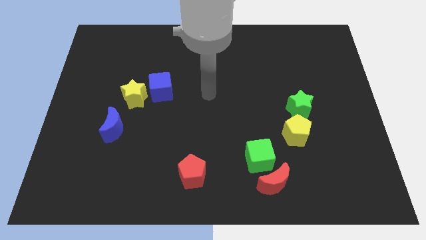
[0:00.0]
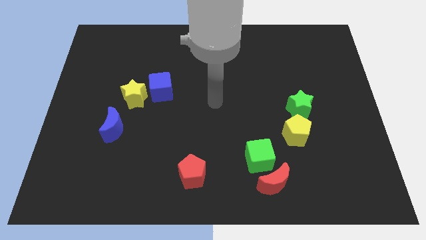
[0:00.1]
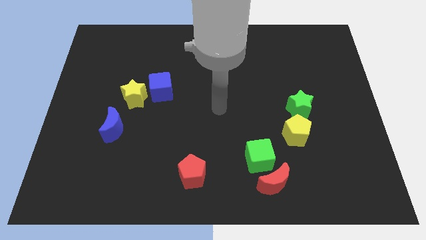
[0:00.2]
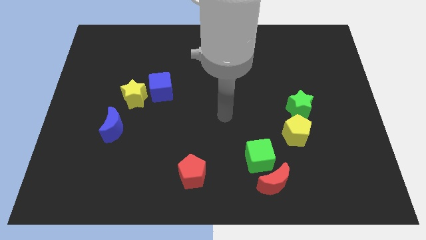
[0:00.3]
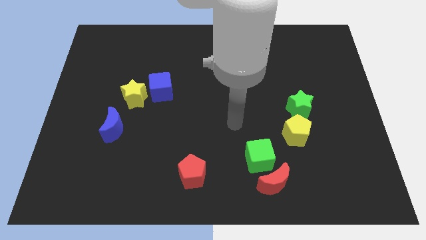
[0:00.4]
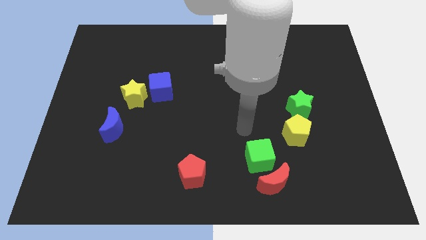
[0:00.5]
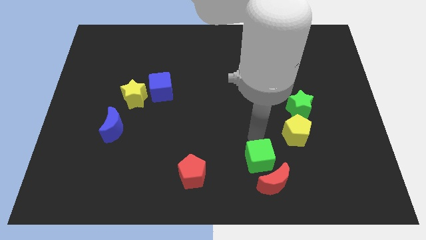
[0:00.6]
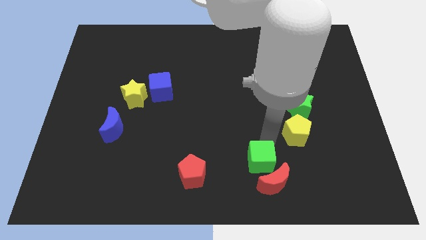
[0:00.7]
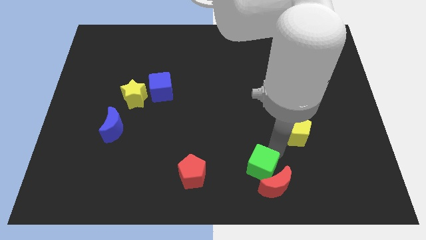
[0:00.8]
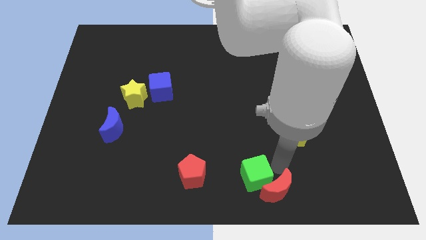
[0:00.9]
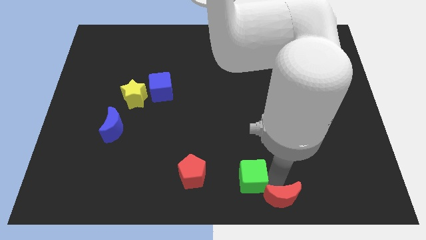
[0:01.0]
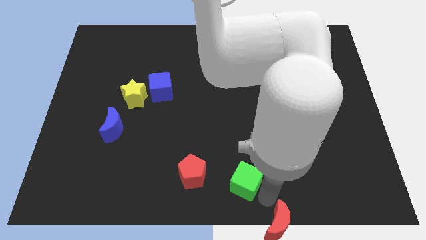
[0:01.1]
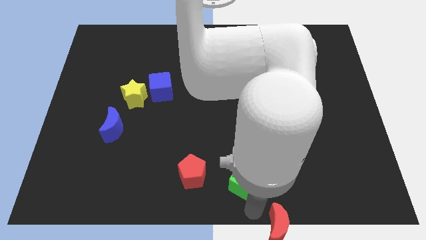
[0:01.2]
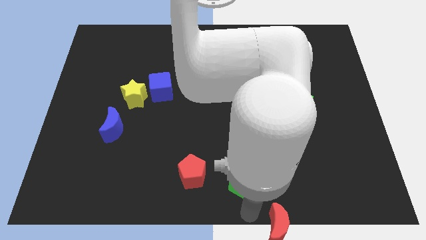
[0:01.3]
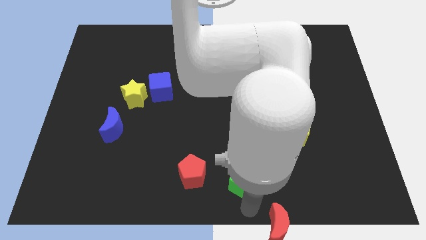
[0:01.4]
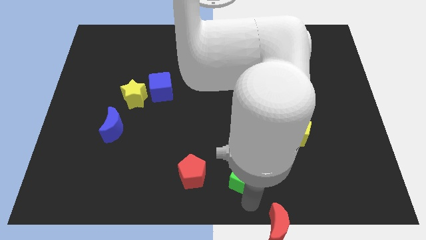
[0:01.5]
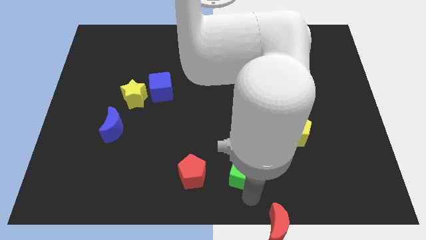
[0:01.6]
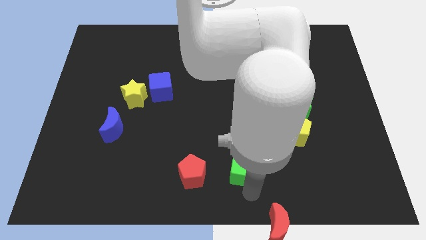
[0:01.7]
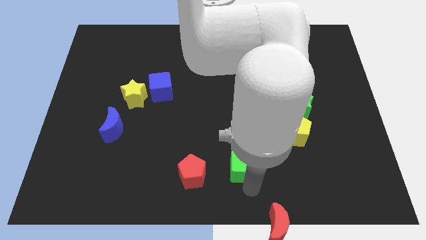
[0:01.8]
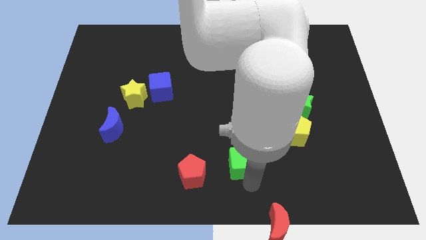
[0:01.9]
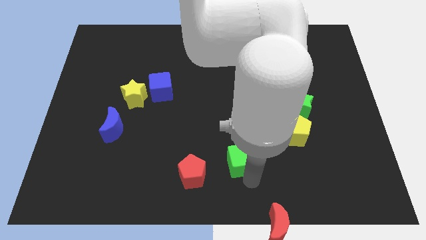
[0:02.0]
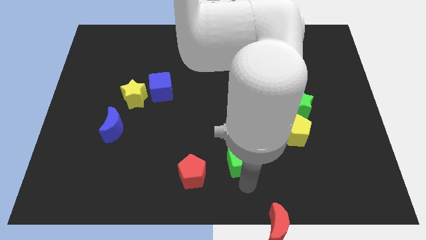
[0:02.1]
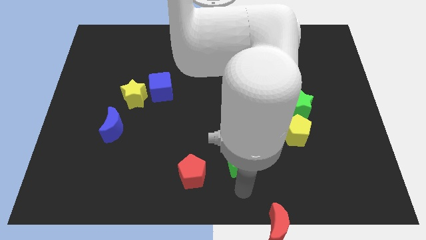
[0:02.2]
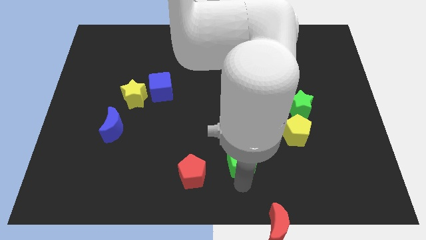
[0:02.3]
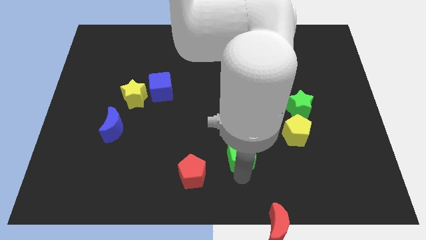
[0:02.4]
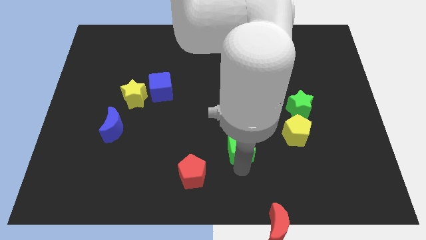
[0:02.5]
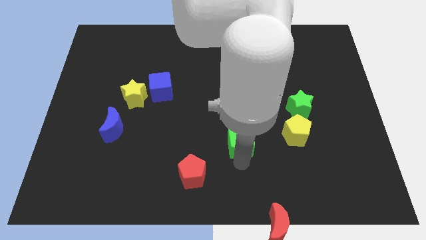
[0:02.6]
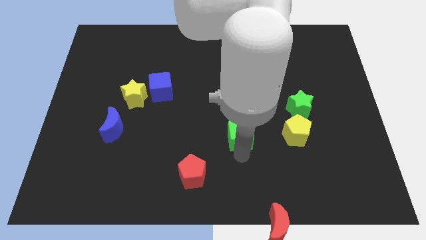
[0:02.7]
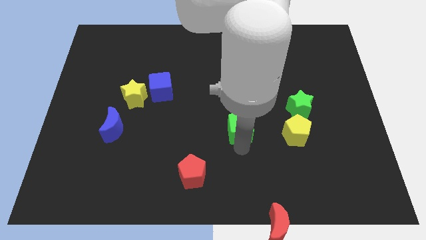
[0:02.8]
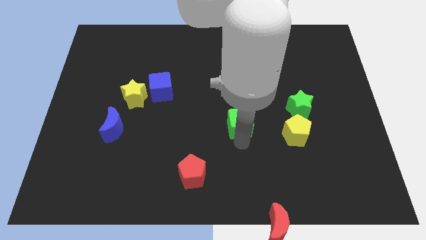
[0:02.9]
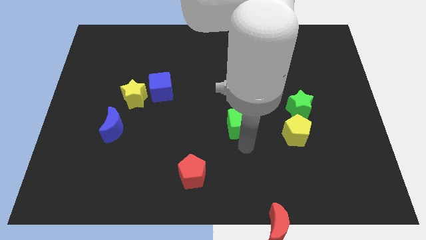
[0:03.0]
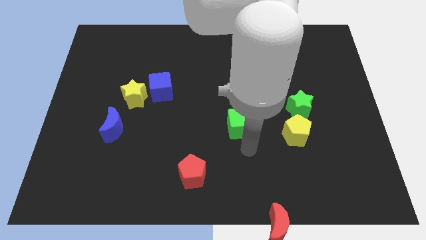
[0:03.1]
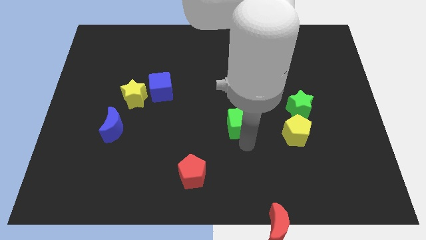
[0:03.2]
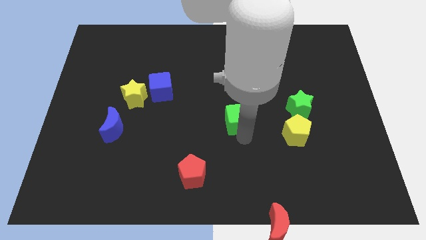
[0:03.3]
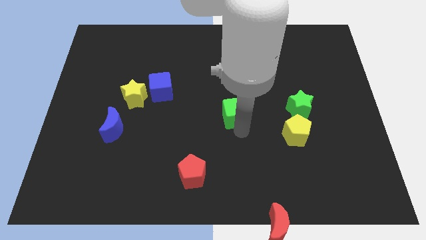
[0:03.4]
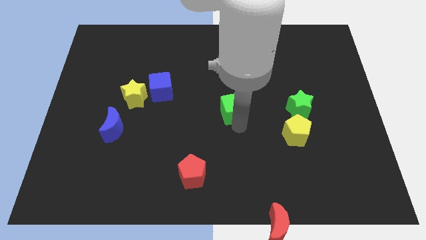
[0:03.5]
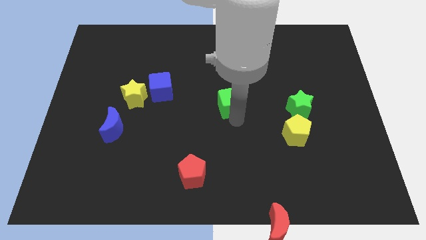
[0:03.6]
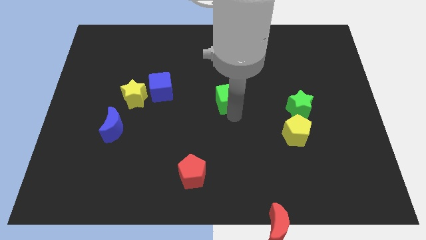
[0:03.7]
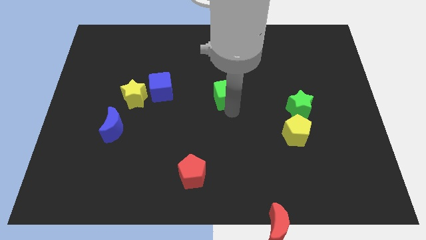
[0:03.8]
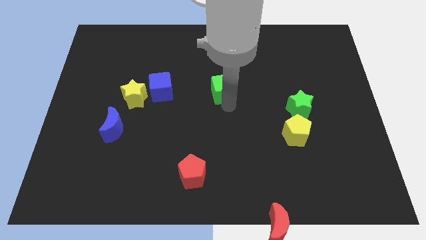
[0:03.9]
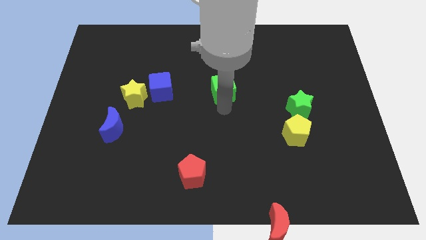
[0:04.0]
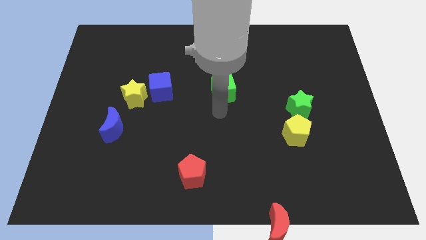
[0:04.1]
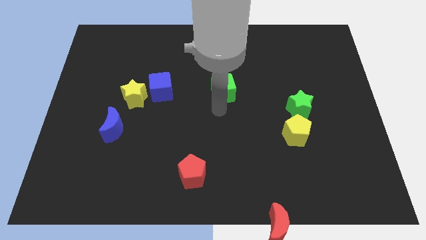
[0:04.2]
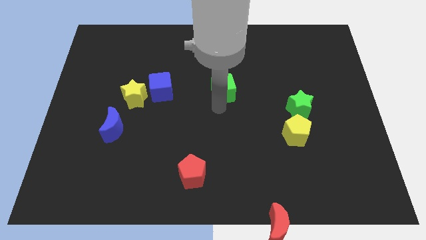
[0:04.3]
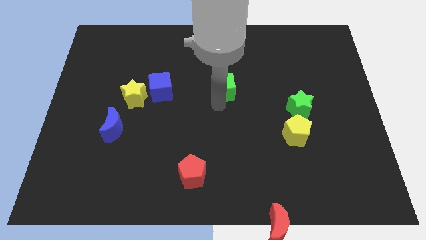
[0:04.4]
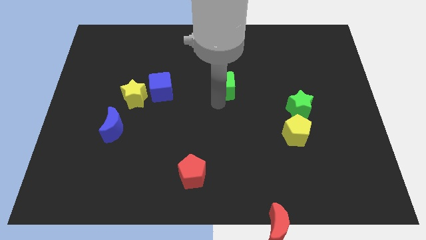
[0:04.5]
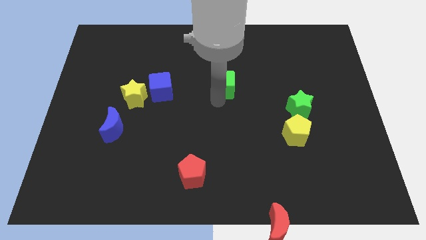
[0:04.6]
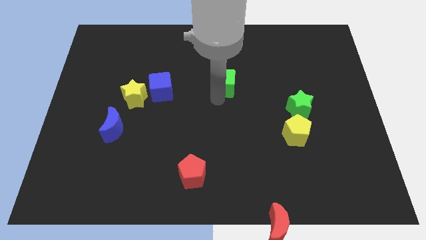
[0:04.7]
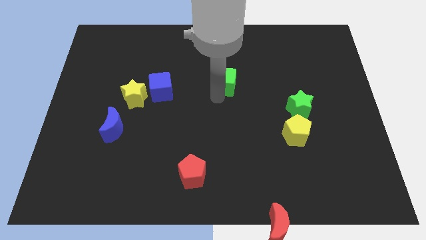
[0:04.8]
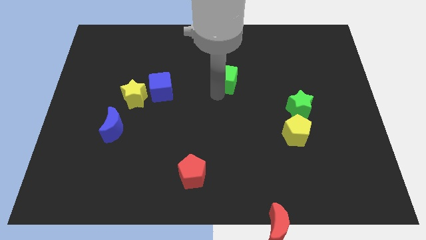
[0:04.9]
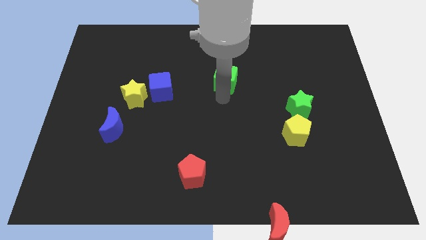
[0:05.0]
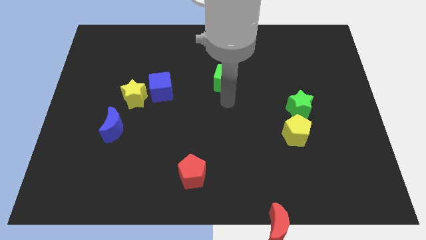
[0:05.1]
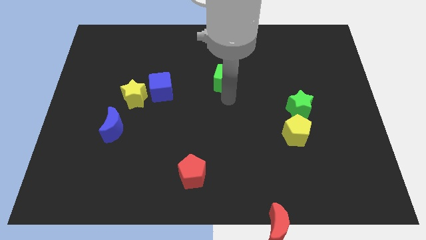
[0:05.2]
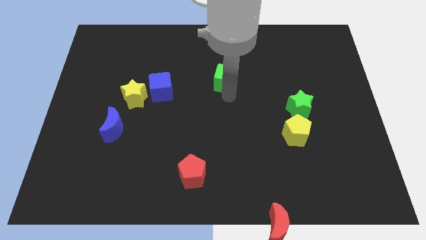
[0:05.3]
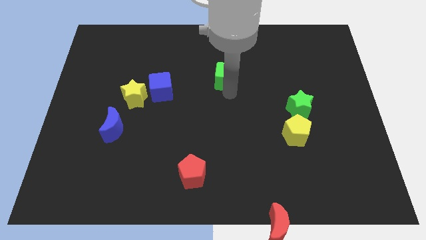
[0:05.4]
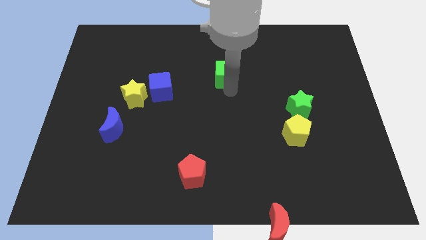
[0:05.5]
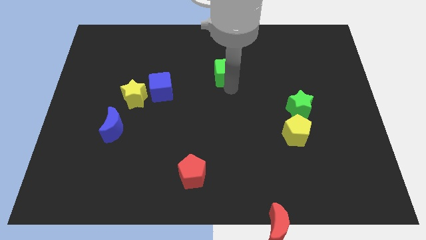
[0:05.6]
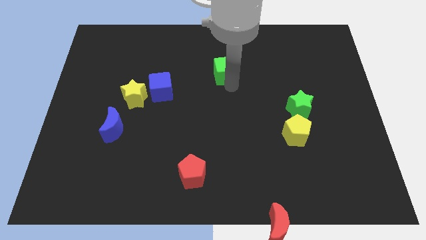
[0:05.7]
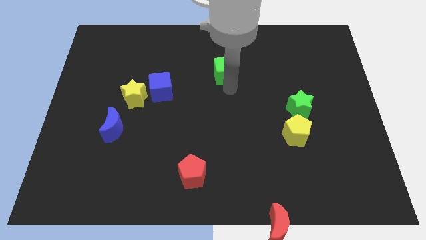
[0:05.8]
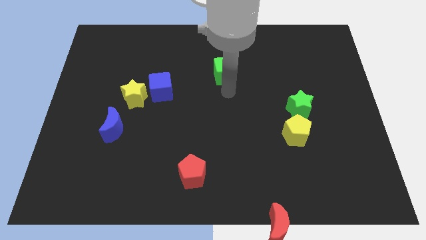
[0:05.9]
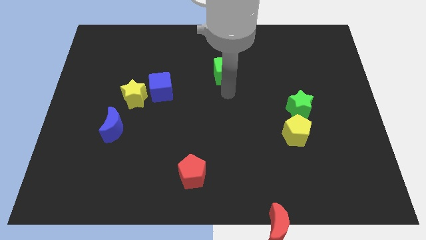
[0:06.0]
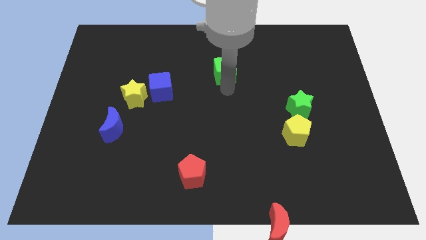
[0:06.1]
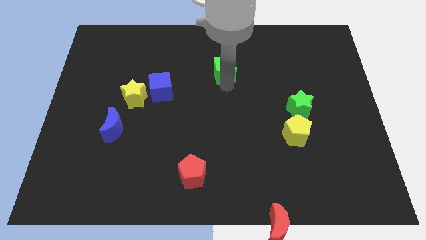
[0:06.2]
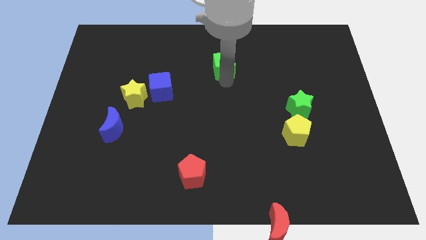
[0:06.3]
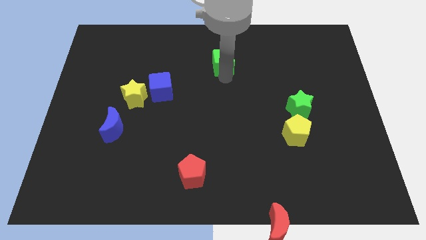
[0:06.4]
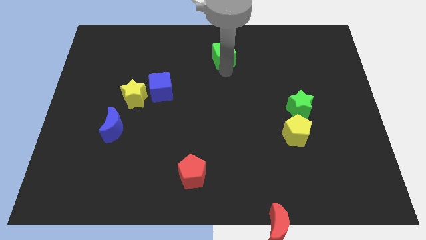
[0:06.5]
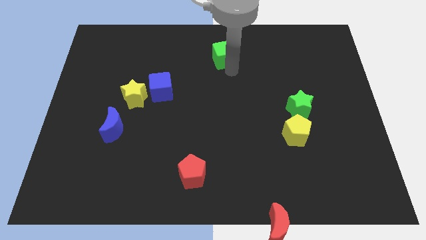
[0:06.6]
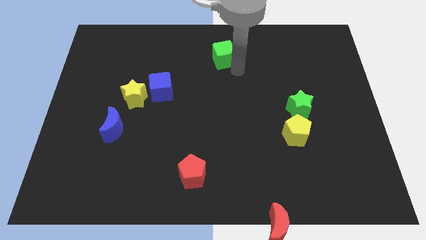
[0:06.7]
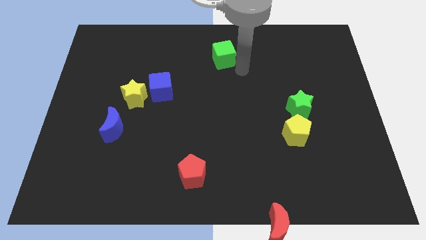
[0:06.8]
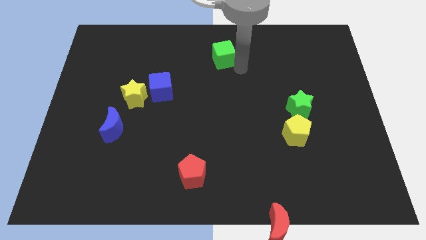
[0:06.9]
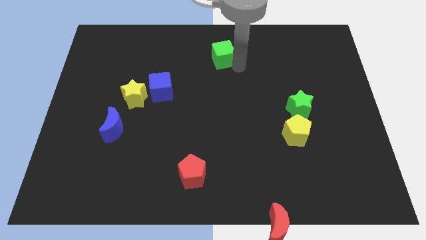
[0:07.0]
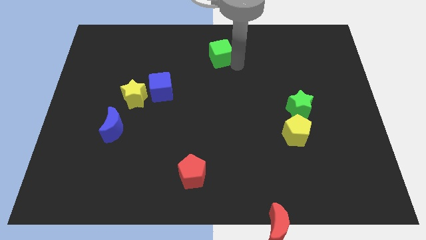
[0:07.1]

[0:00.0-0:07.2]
put the green cube to the towards your base
